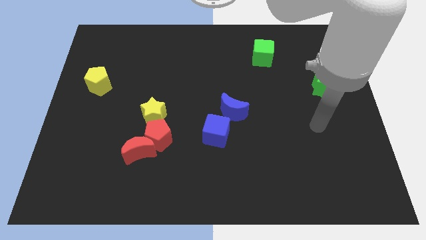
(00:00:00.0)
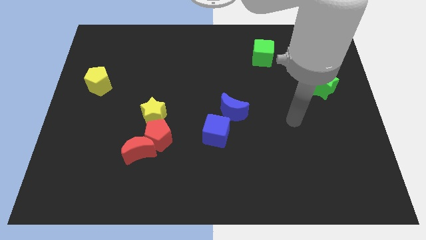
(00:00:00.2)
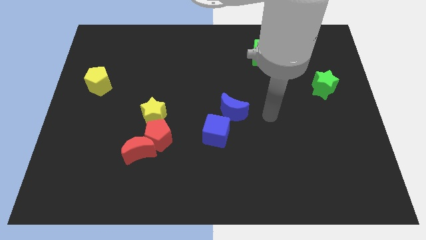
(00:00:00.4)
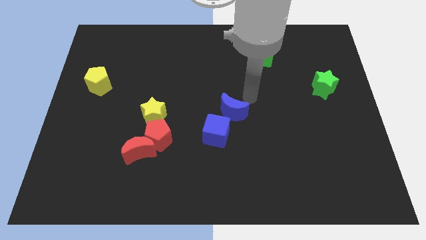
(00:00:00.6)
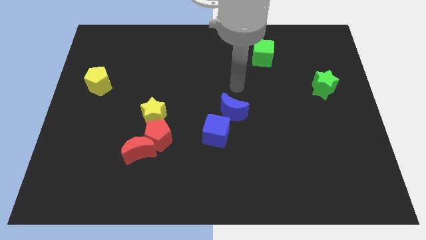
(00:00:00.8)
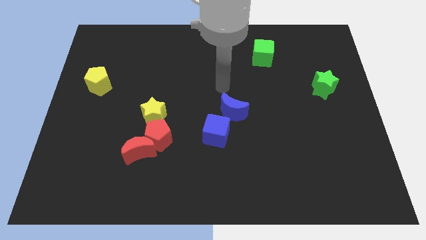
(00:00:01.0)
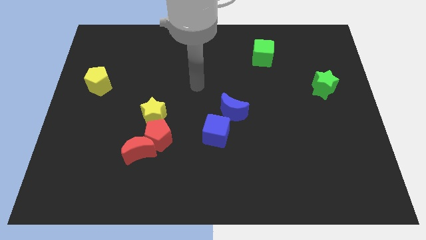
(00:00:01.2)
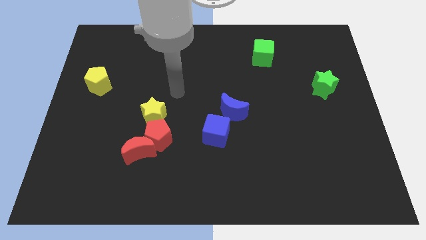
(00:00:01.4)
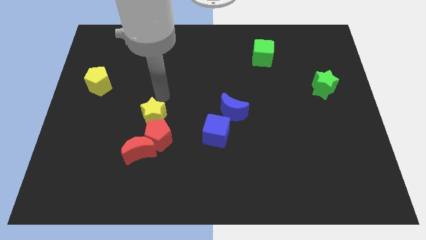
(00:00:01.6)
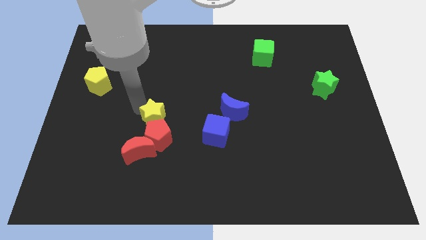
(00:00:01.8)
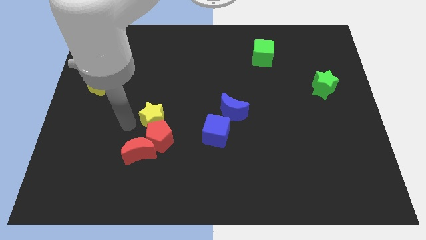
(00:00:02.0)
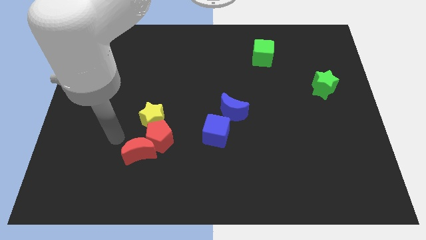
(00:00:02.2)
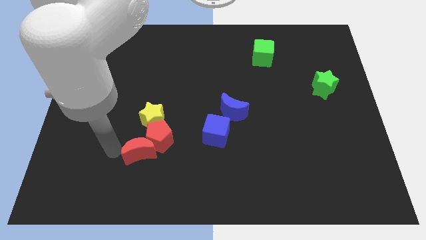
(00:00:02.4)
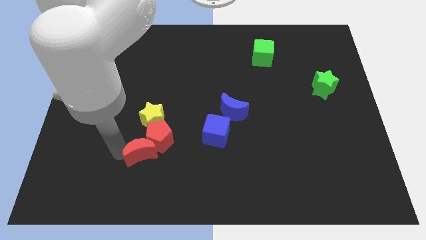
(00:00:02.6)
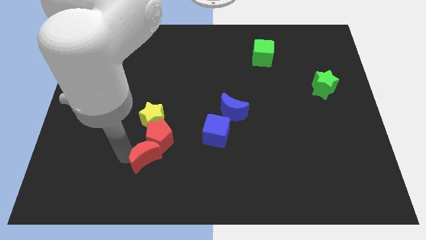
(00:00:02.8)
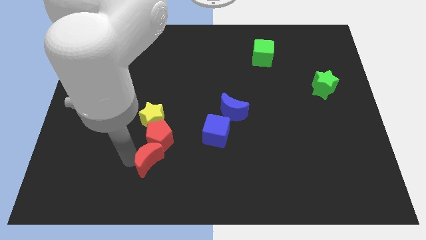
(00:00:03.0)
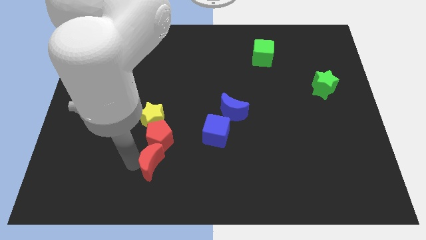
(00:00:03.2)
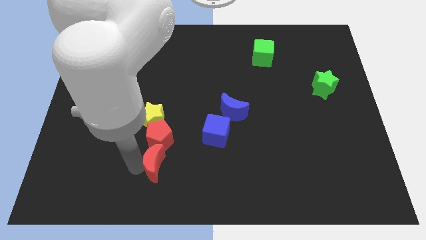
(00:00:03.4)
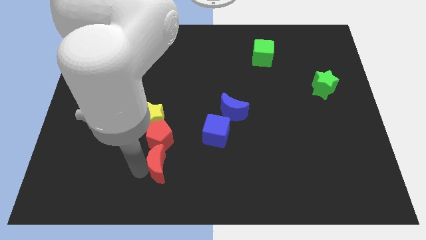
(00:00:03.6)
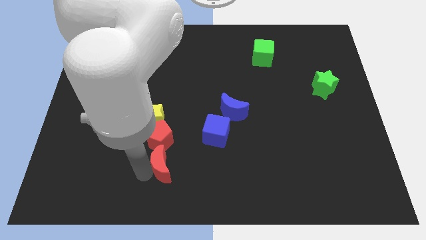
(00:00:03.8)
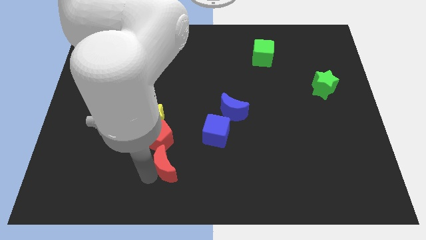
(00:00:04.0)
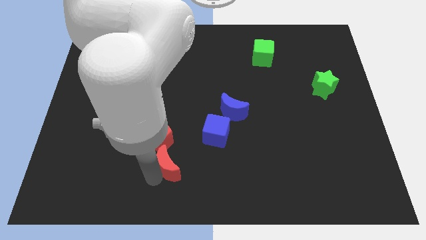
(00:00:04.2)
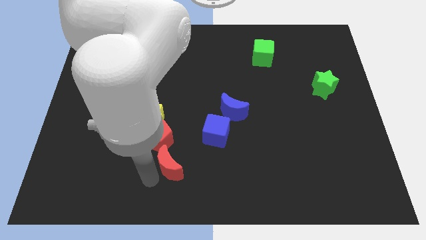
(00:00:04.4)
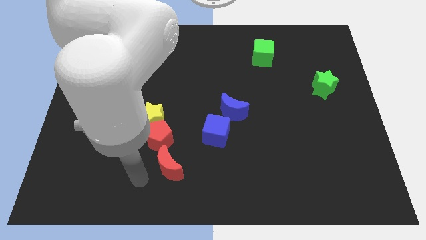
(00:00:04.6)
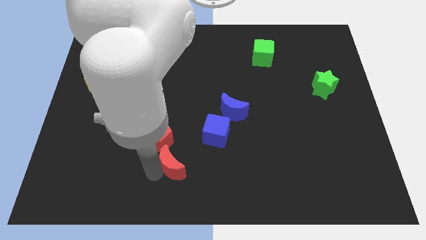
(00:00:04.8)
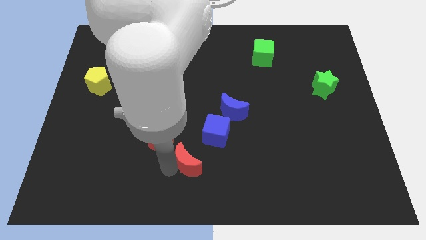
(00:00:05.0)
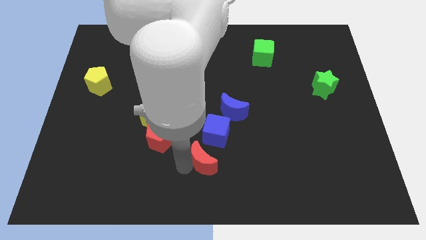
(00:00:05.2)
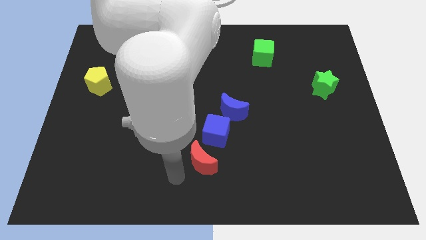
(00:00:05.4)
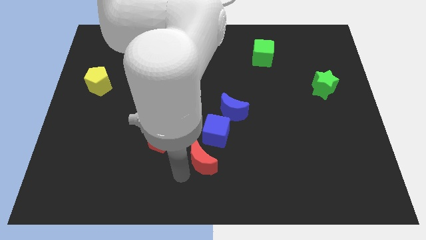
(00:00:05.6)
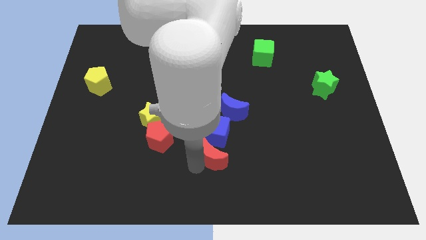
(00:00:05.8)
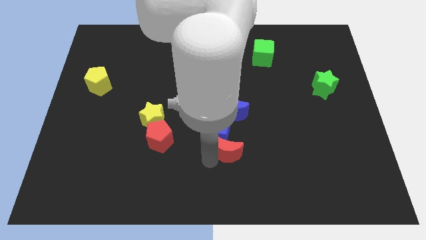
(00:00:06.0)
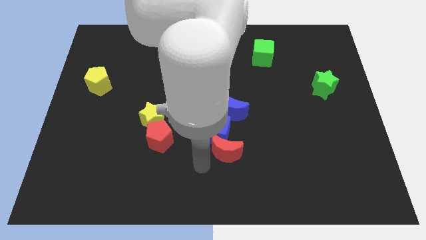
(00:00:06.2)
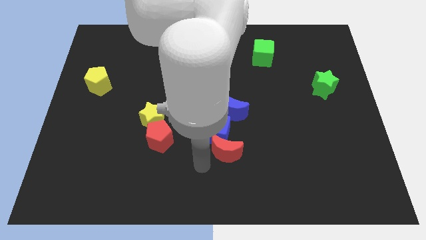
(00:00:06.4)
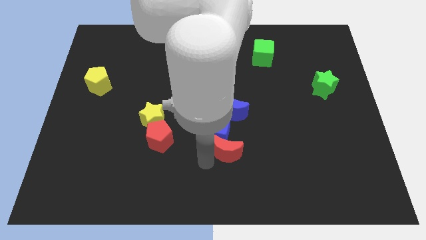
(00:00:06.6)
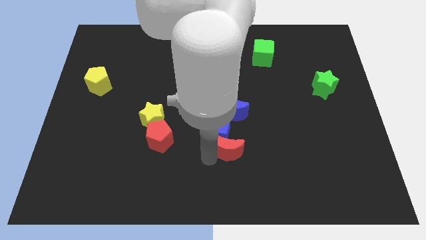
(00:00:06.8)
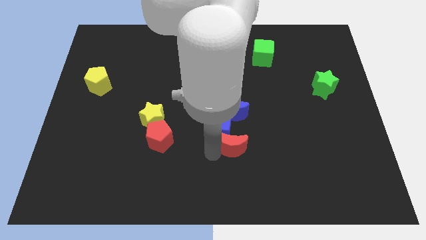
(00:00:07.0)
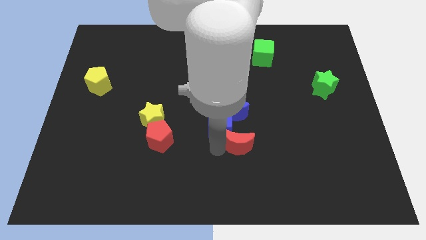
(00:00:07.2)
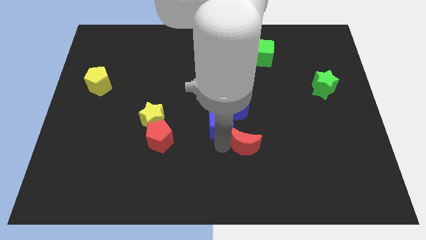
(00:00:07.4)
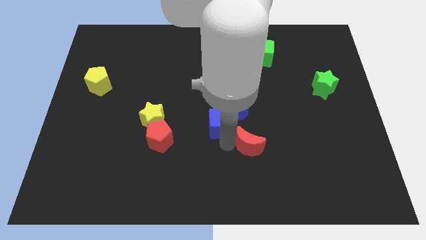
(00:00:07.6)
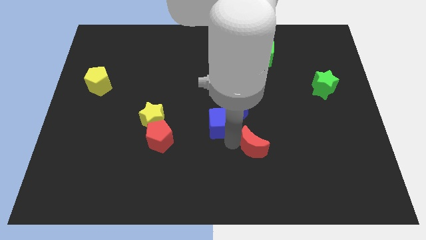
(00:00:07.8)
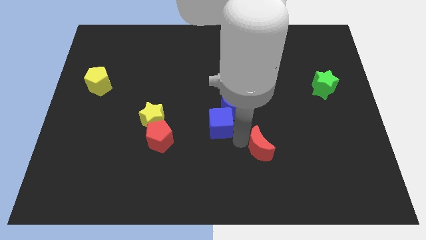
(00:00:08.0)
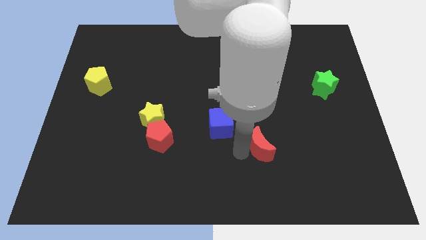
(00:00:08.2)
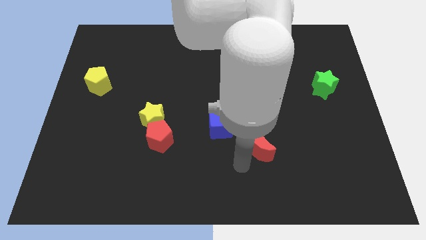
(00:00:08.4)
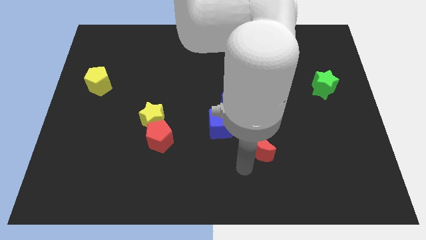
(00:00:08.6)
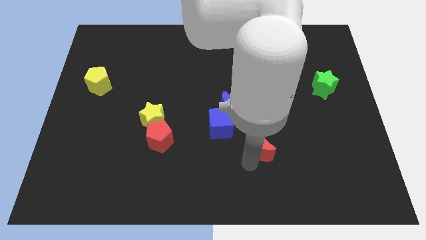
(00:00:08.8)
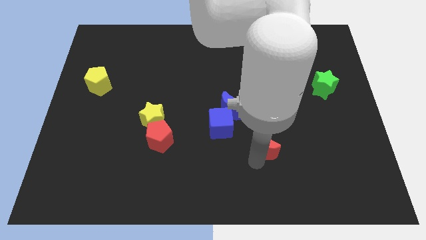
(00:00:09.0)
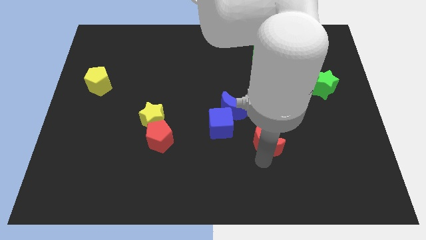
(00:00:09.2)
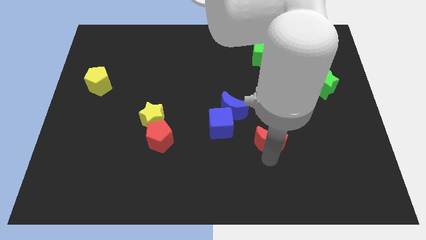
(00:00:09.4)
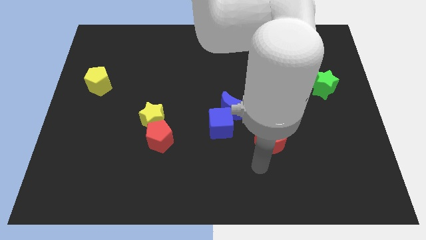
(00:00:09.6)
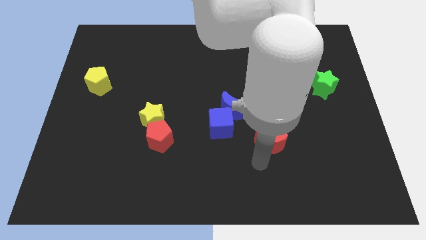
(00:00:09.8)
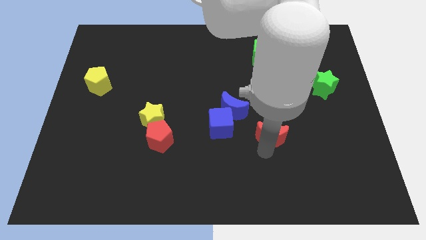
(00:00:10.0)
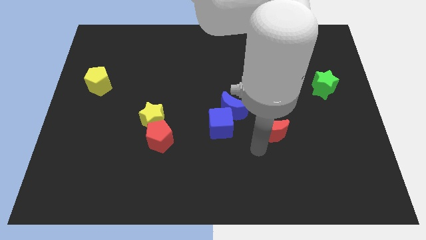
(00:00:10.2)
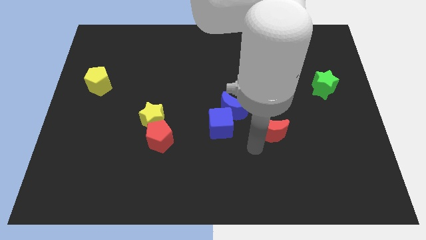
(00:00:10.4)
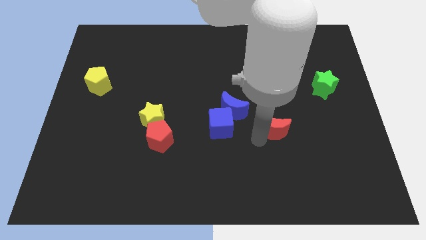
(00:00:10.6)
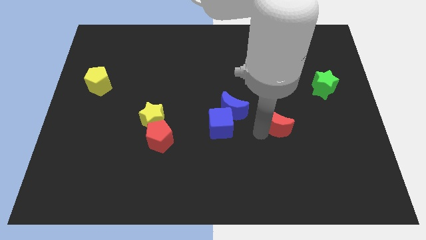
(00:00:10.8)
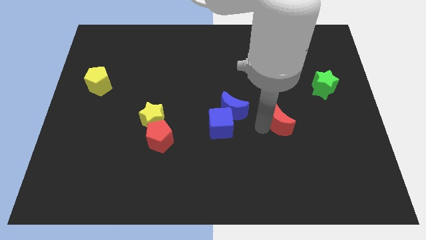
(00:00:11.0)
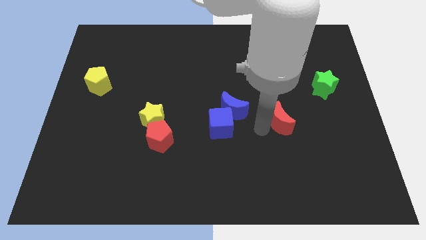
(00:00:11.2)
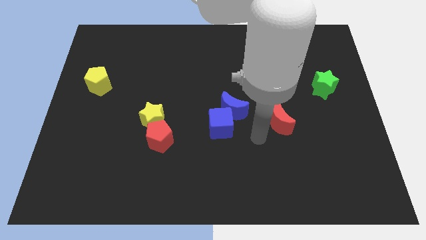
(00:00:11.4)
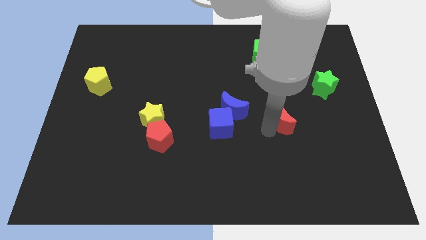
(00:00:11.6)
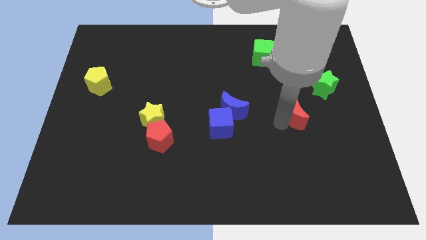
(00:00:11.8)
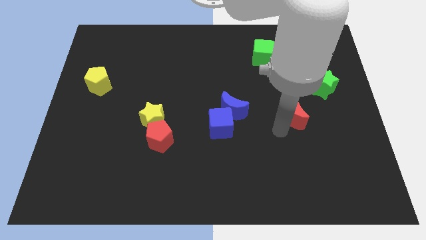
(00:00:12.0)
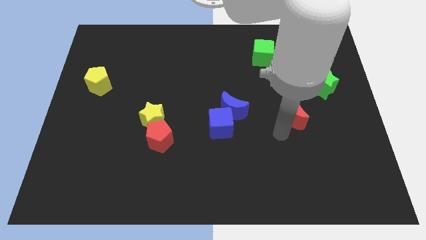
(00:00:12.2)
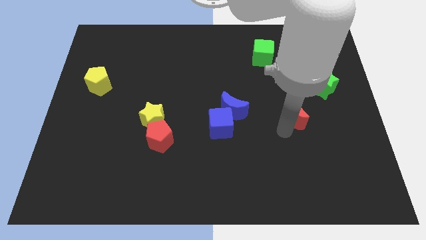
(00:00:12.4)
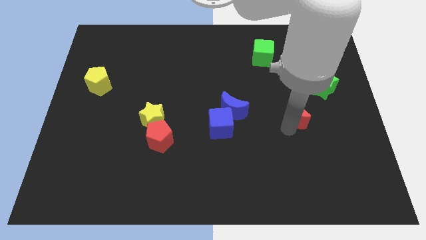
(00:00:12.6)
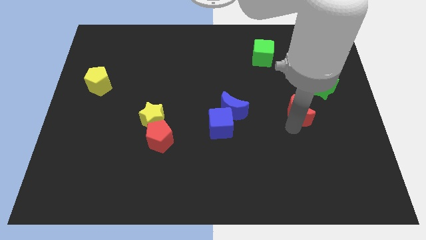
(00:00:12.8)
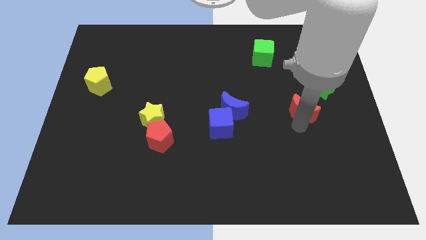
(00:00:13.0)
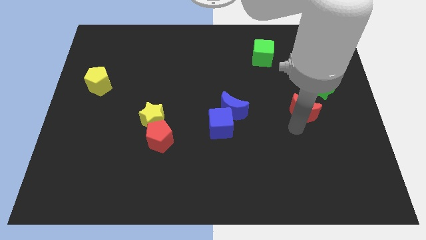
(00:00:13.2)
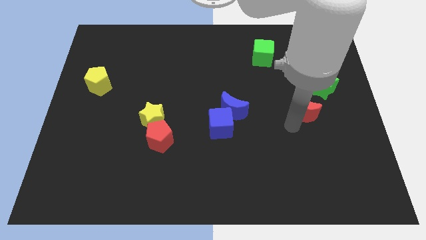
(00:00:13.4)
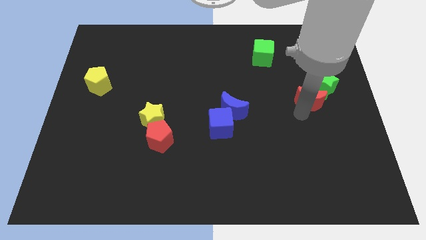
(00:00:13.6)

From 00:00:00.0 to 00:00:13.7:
slide the red moon next to the green star
